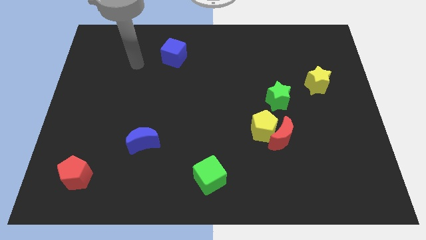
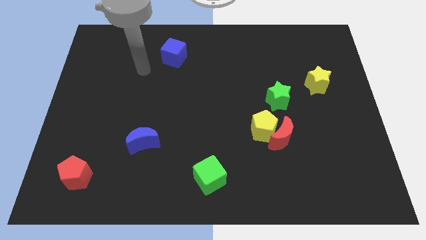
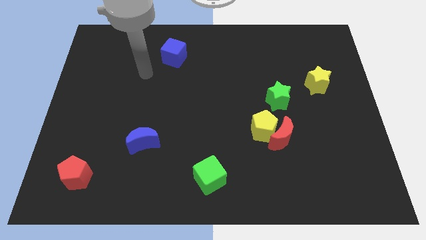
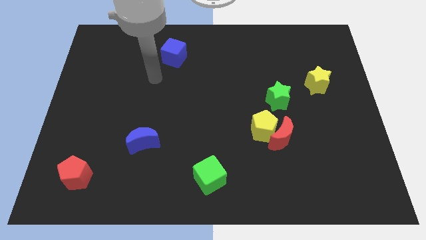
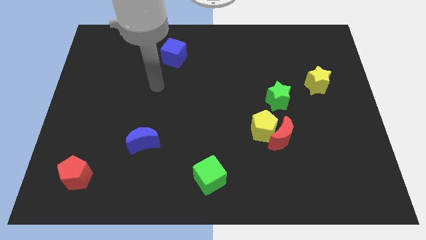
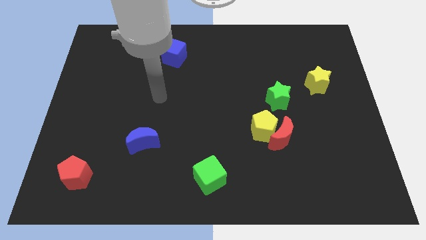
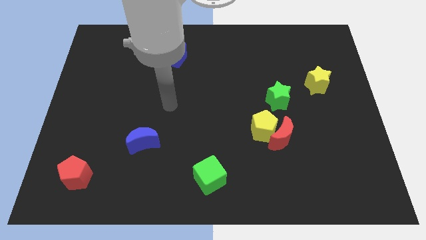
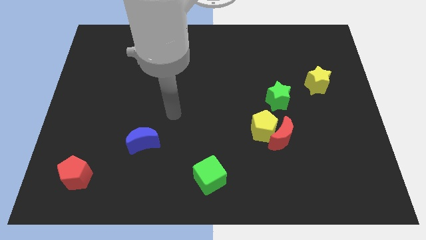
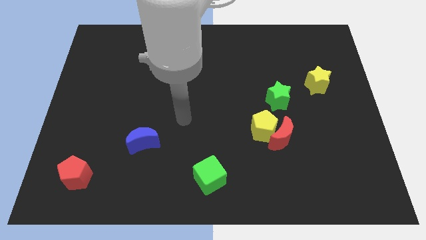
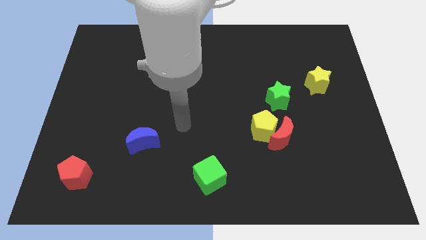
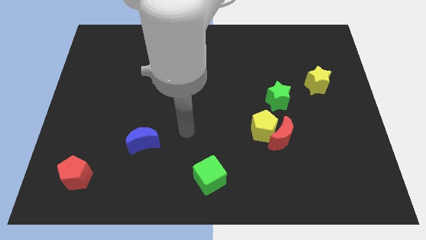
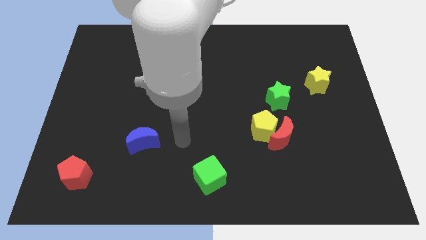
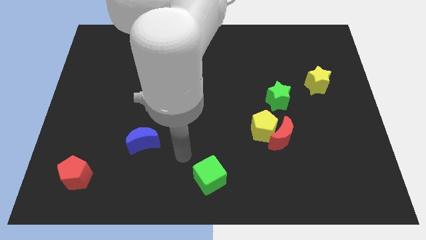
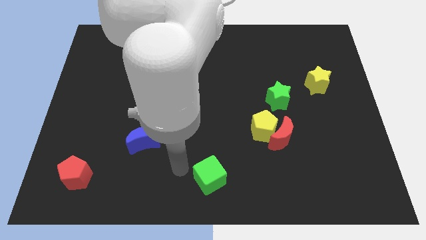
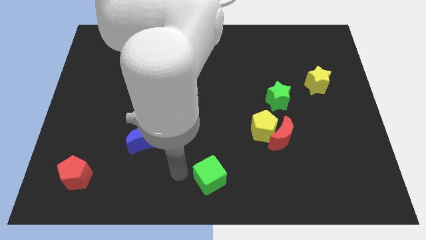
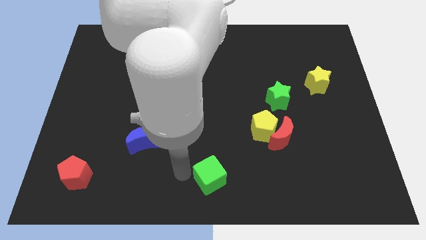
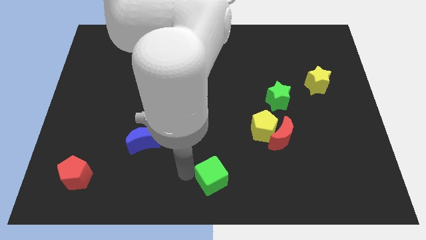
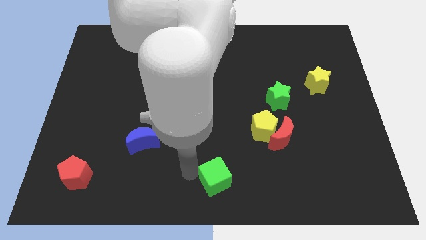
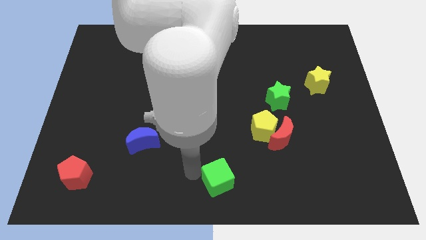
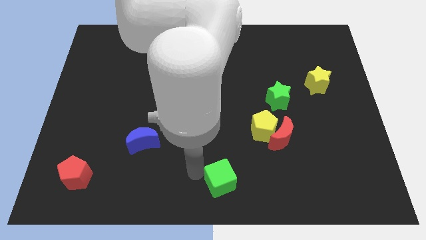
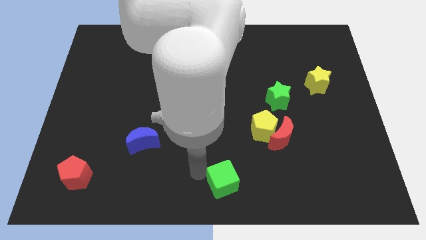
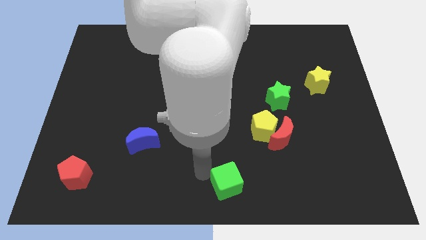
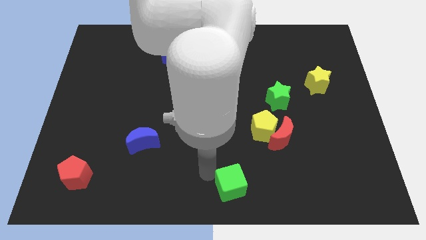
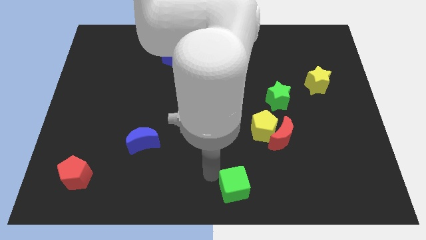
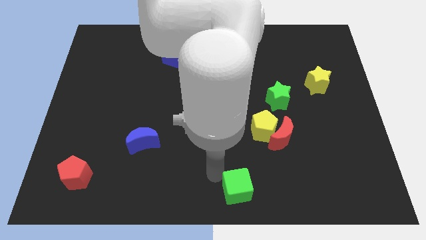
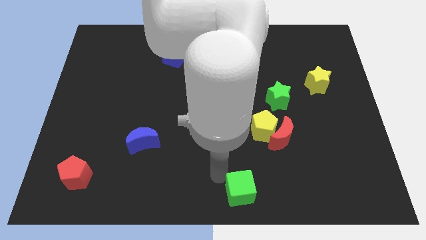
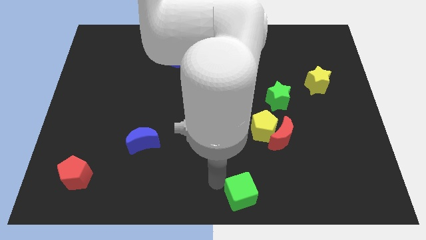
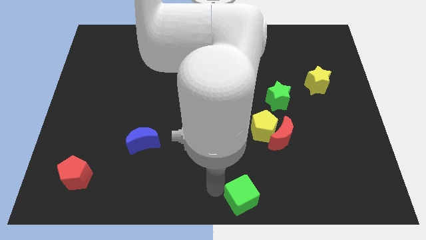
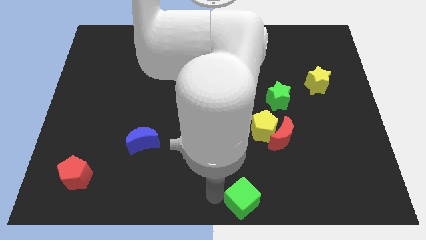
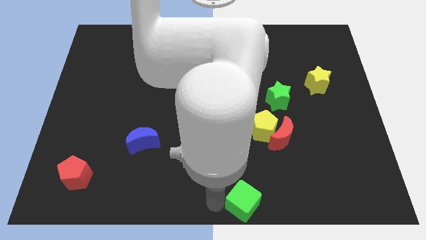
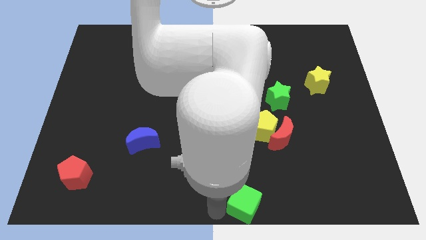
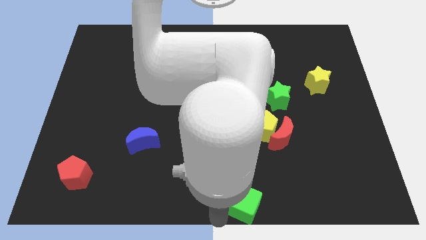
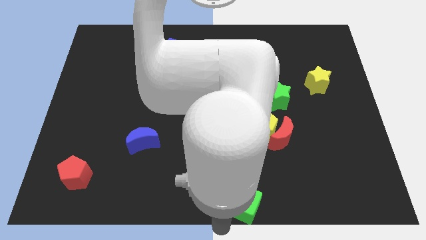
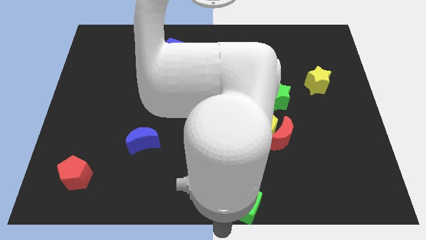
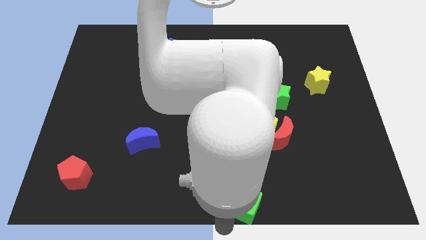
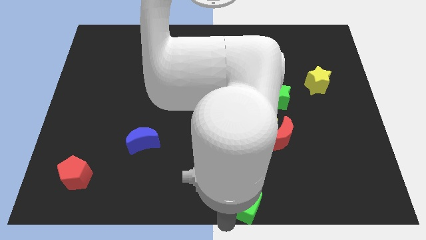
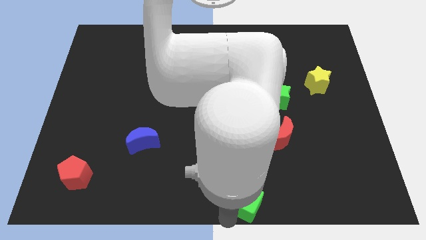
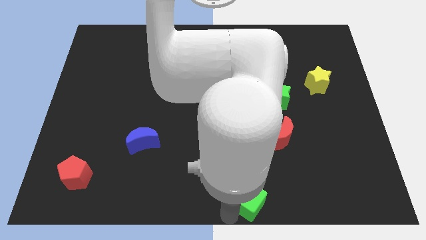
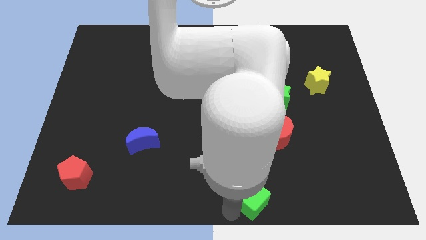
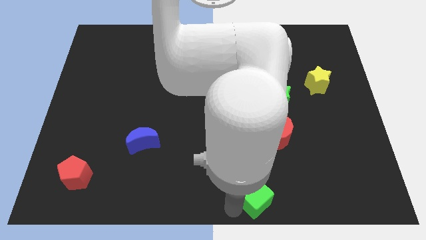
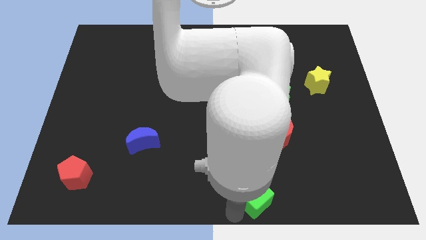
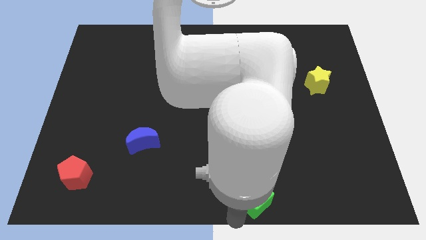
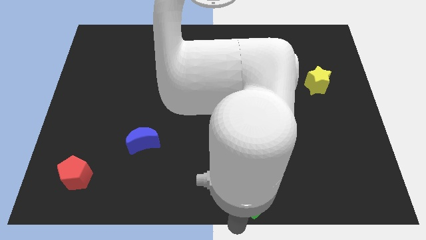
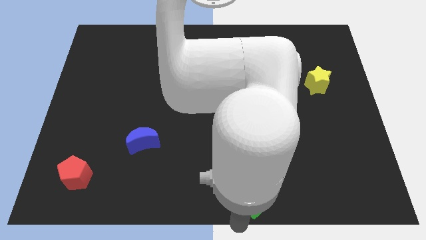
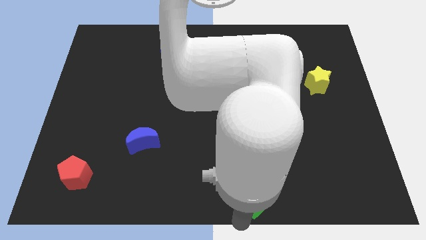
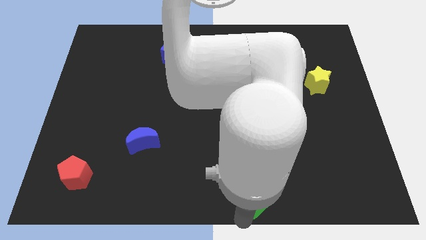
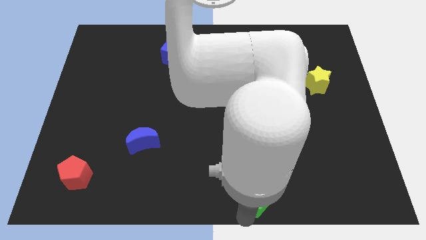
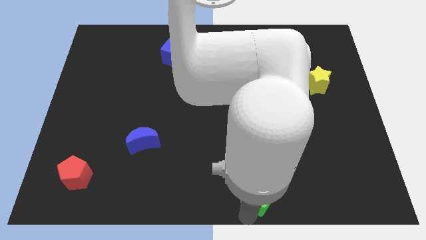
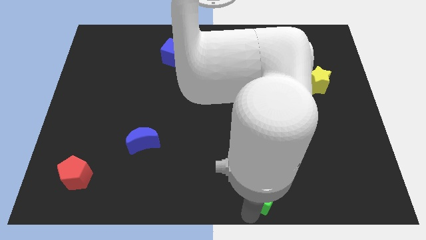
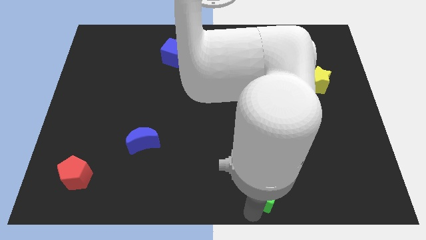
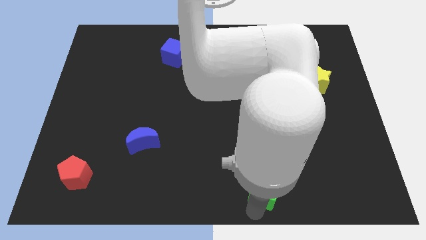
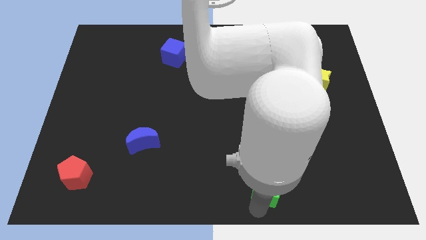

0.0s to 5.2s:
move the green cube to the bottom of the red moon

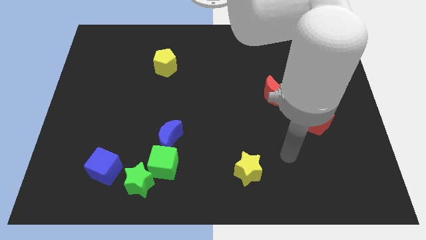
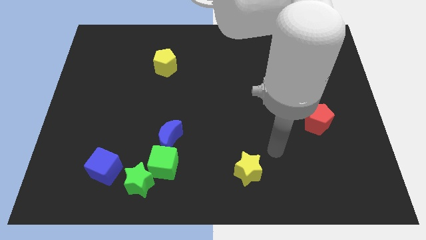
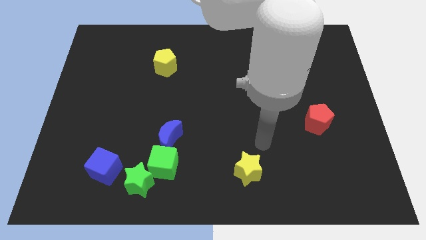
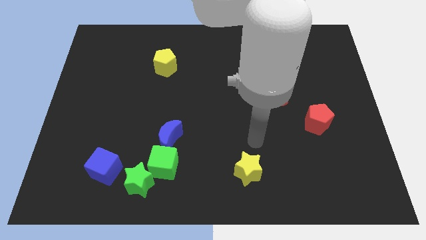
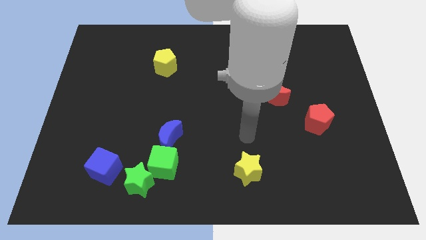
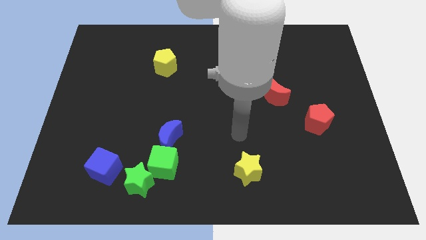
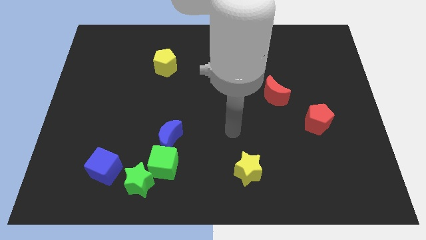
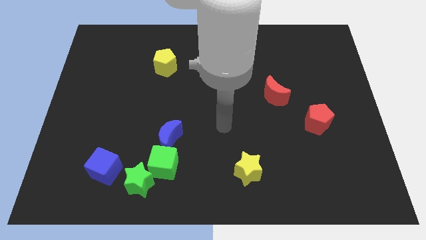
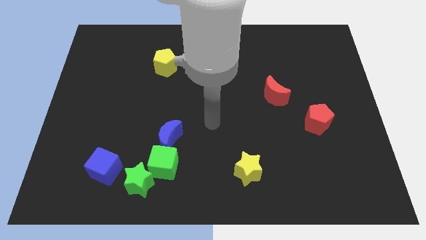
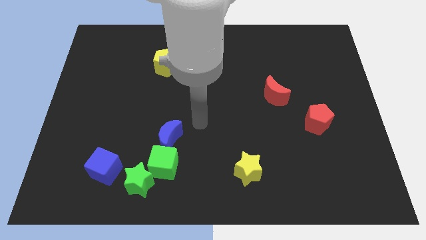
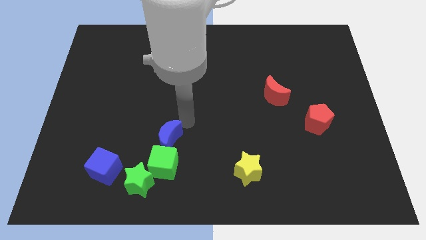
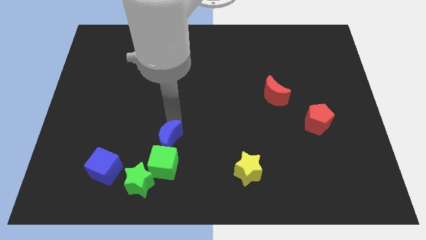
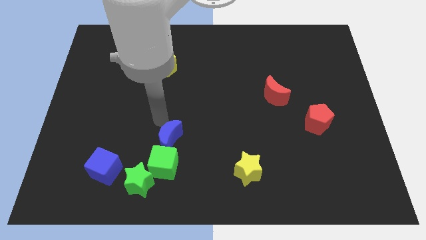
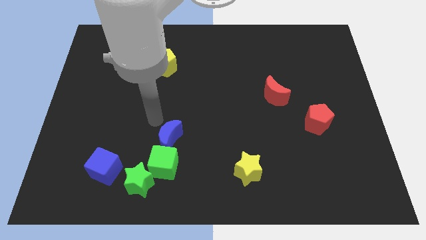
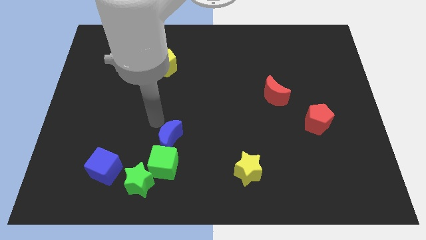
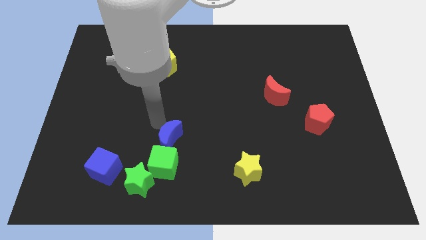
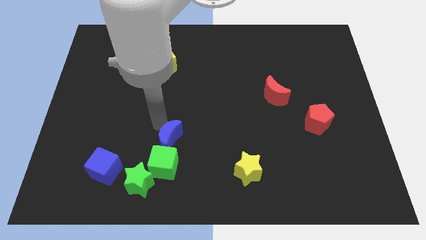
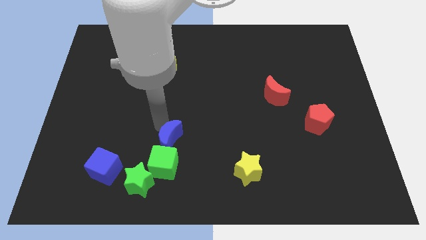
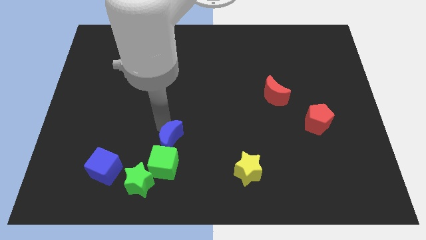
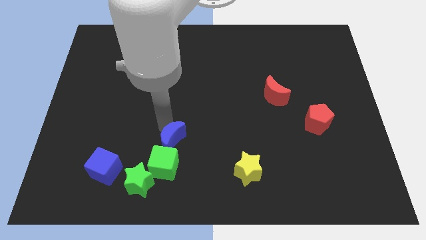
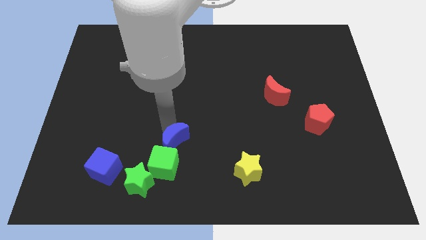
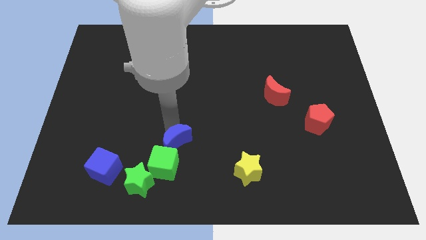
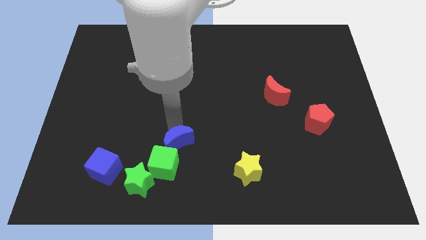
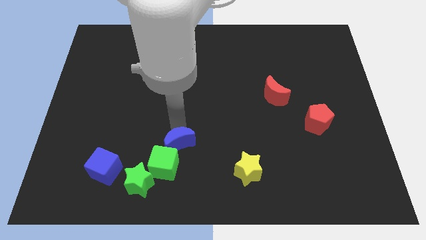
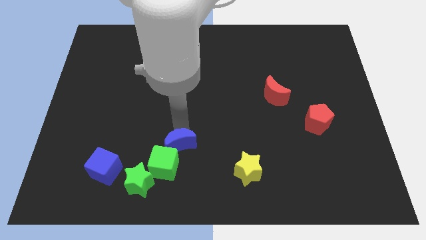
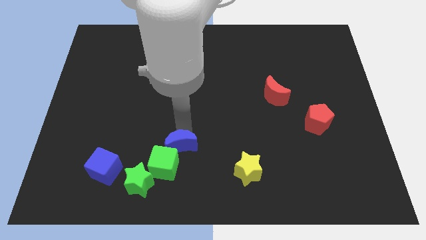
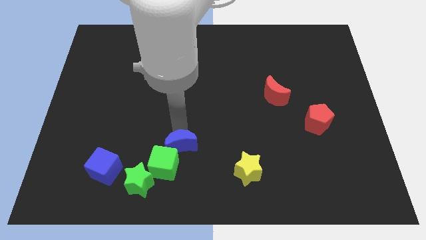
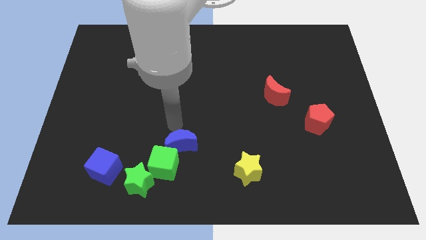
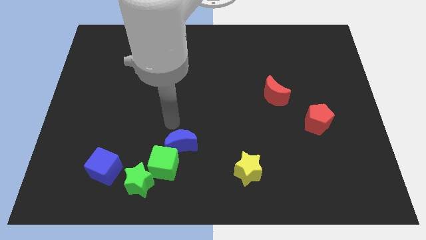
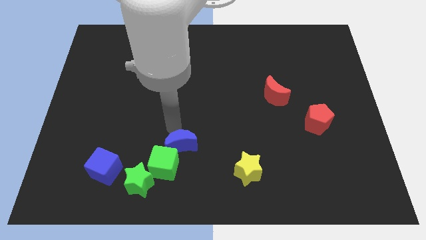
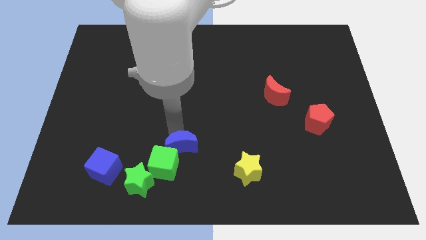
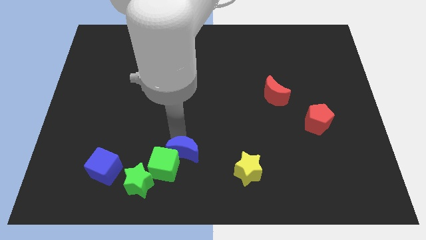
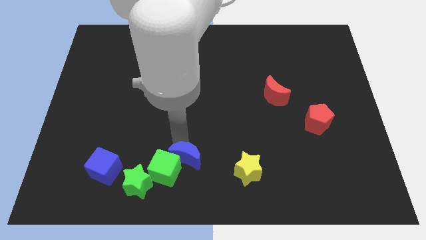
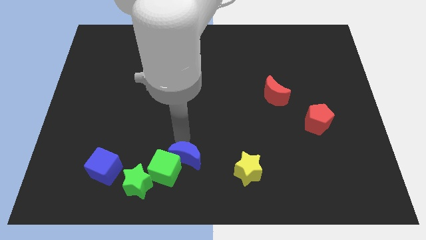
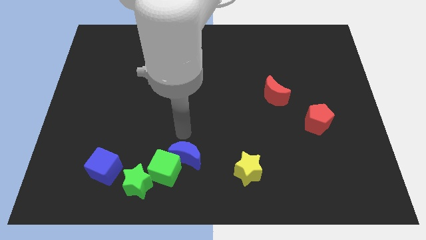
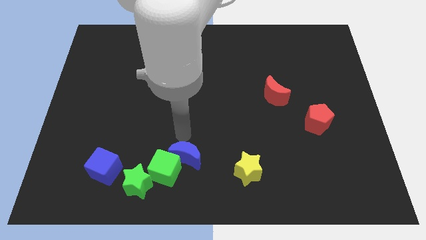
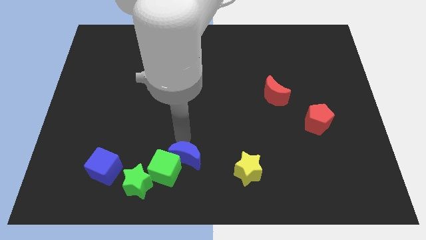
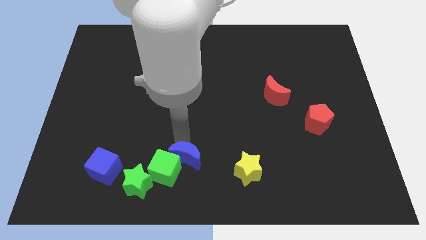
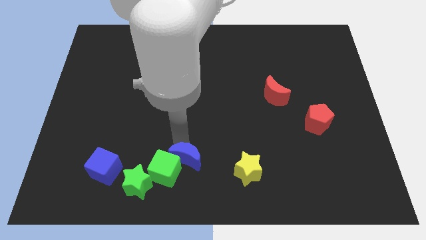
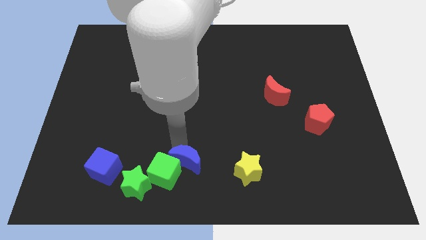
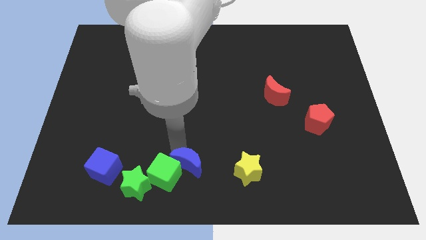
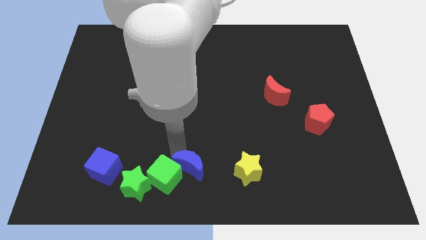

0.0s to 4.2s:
move the blue moon right of the green star
